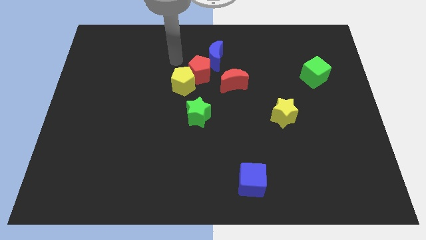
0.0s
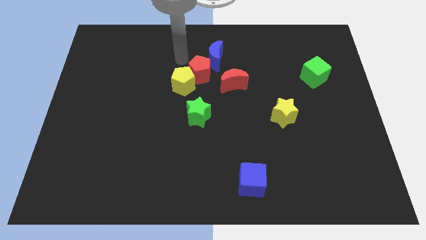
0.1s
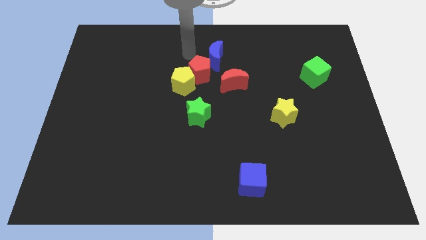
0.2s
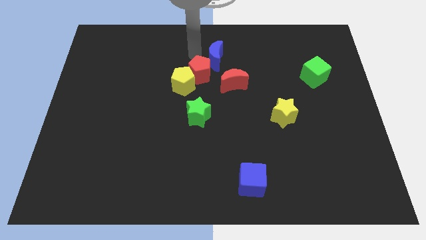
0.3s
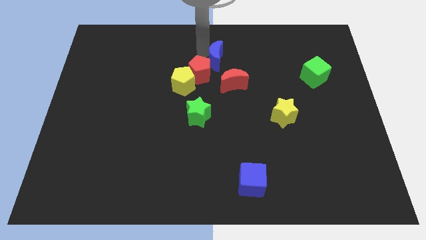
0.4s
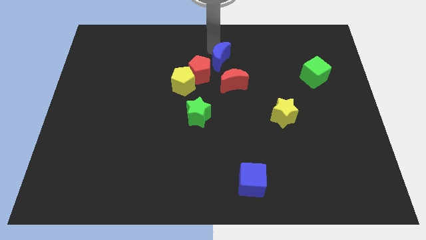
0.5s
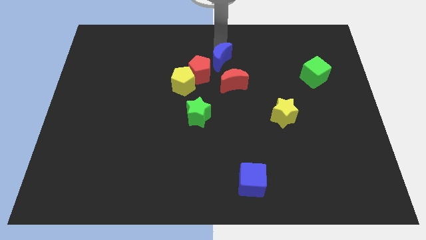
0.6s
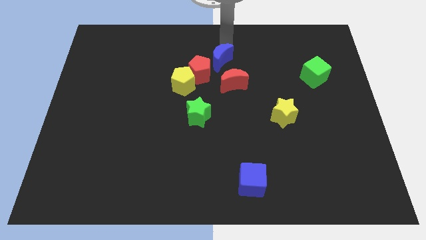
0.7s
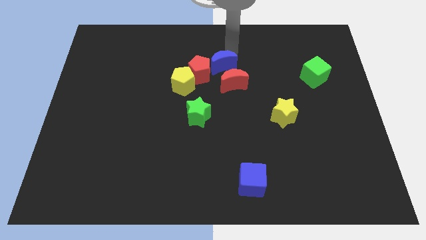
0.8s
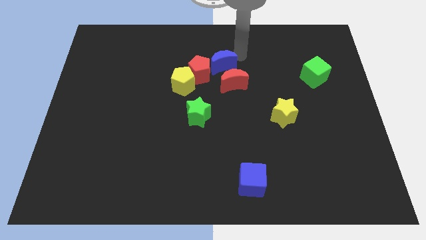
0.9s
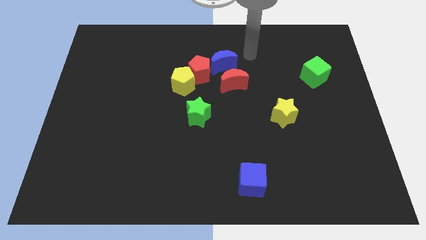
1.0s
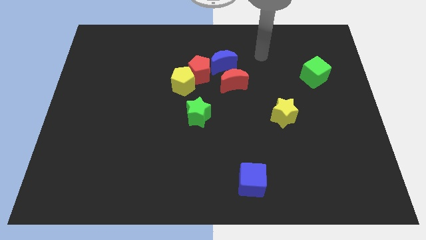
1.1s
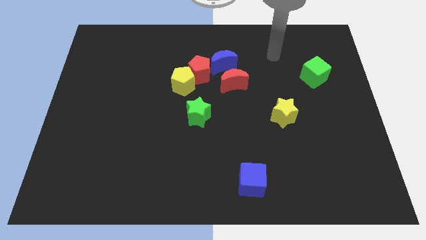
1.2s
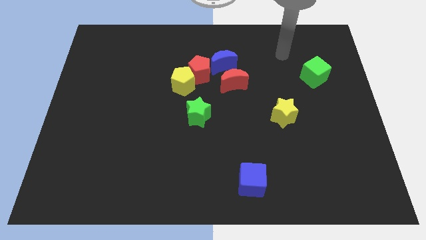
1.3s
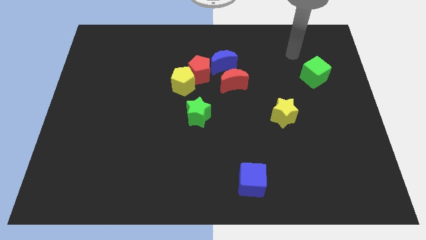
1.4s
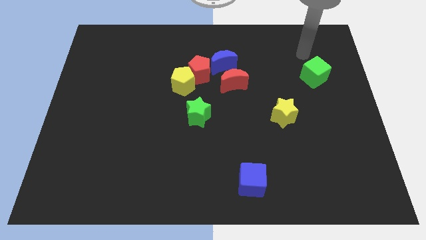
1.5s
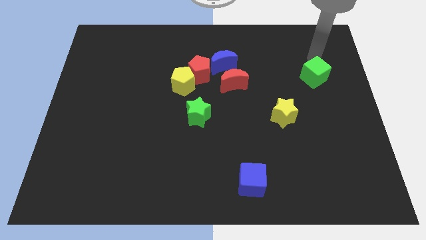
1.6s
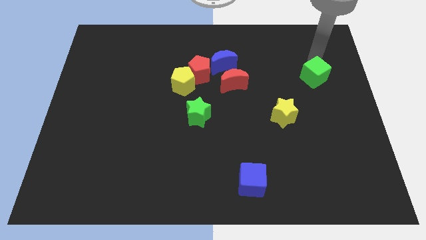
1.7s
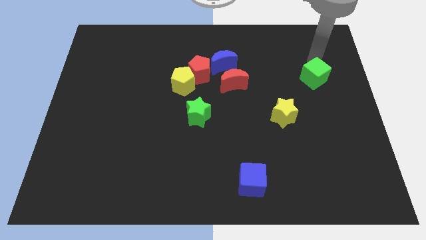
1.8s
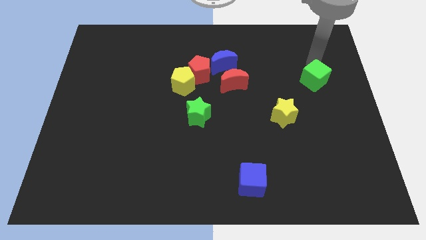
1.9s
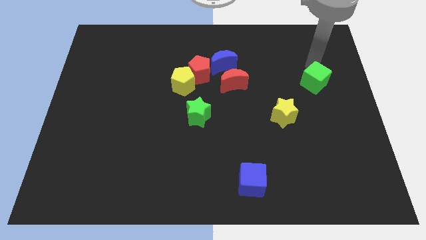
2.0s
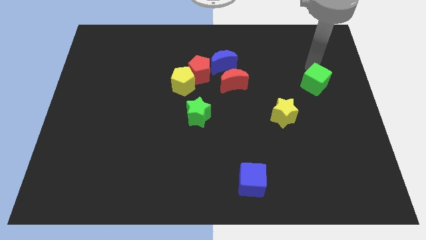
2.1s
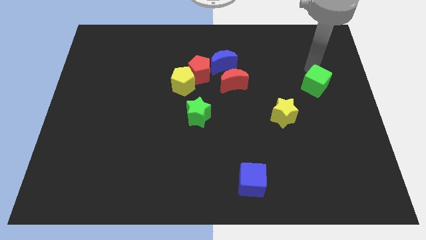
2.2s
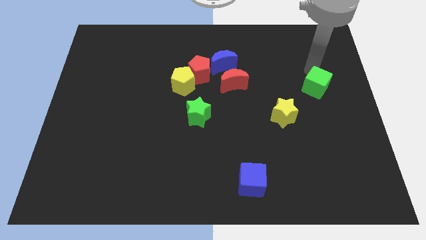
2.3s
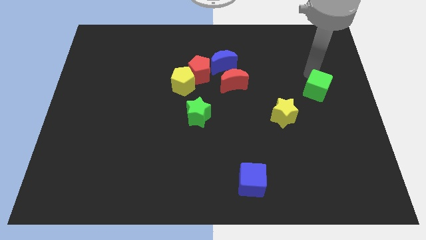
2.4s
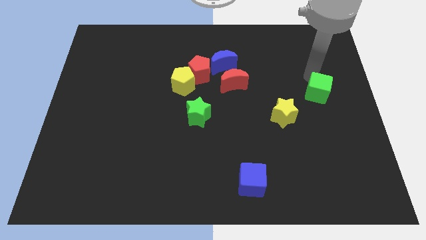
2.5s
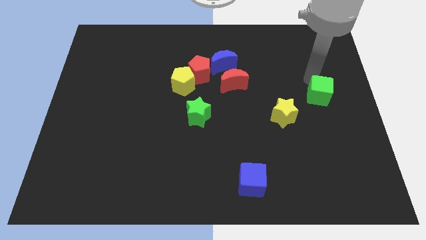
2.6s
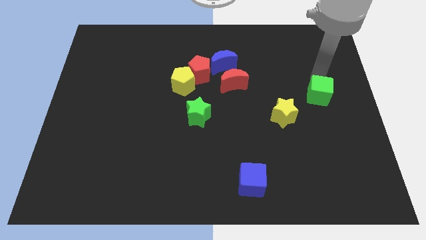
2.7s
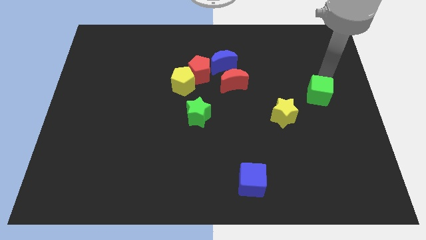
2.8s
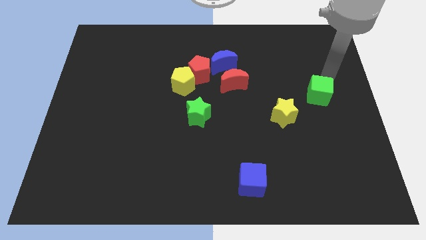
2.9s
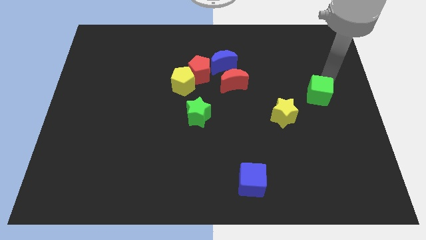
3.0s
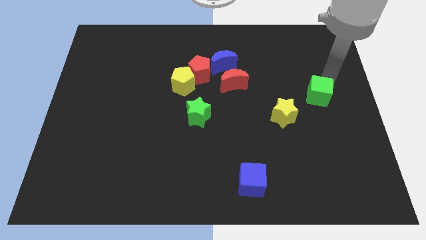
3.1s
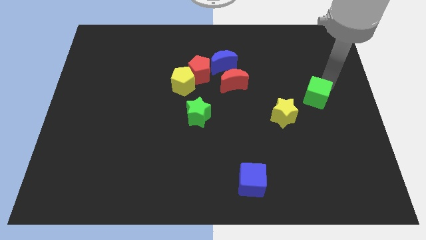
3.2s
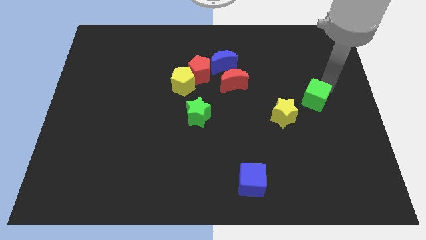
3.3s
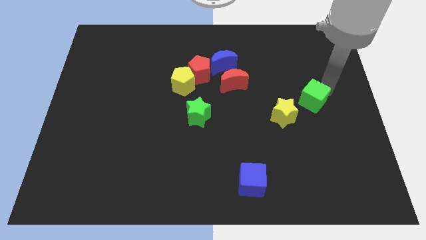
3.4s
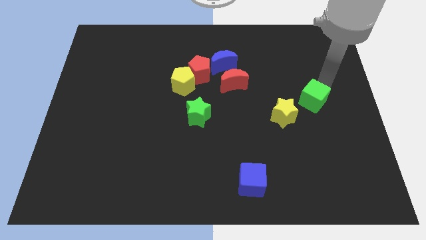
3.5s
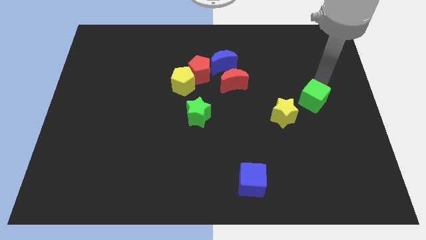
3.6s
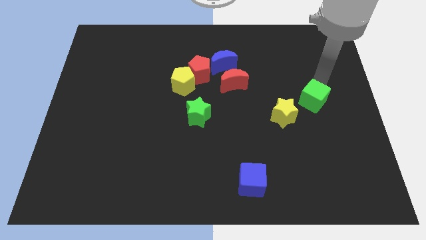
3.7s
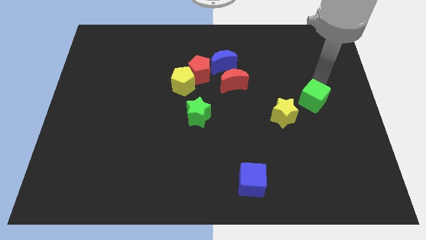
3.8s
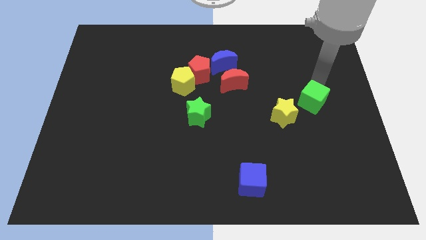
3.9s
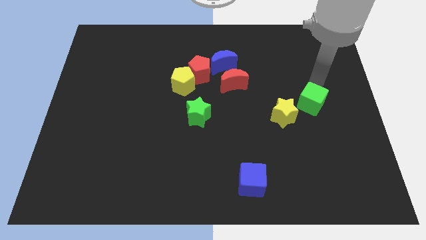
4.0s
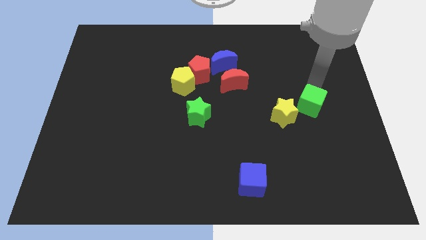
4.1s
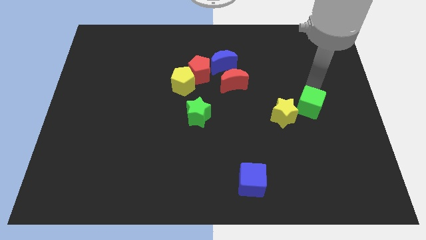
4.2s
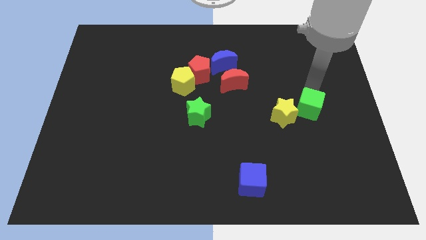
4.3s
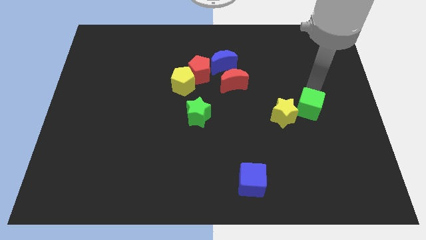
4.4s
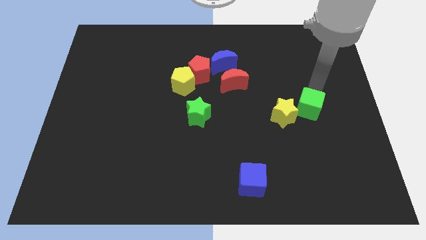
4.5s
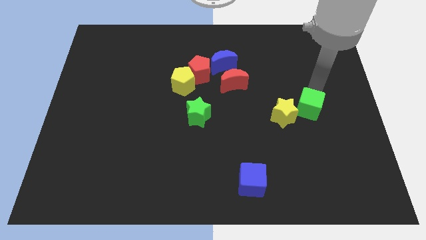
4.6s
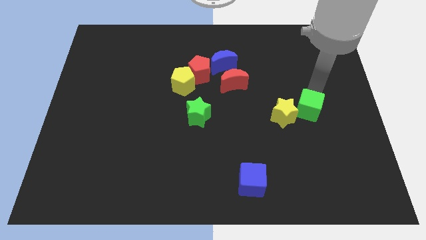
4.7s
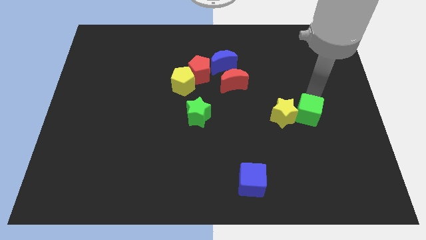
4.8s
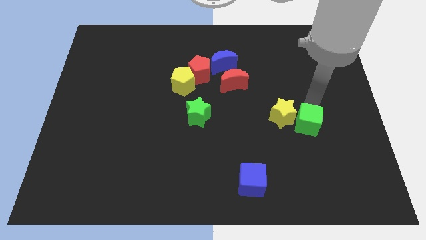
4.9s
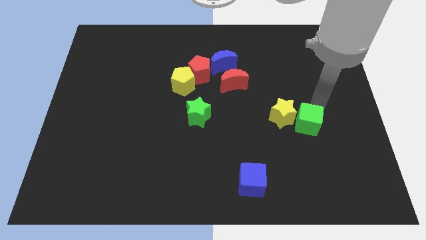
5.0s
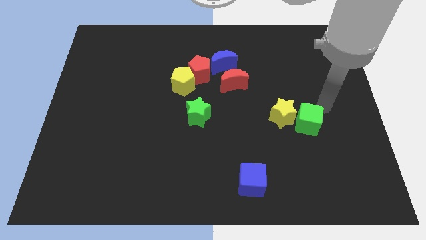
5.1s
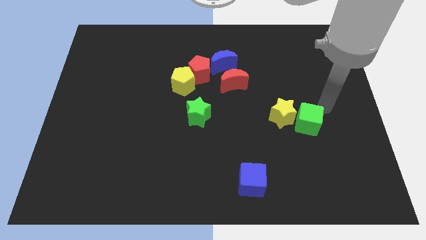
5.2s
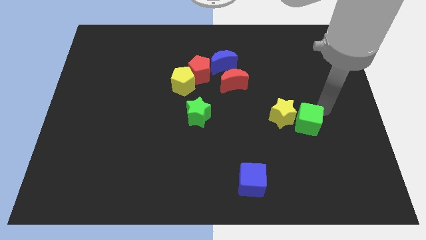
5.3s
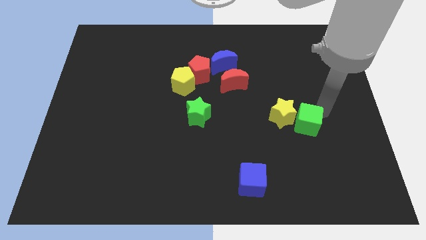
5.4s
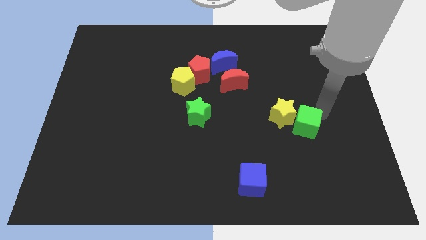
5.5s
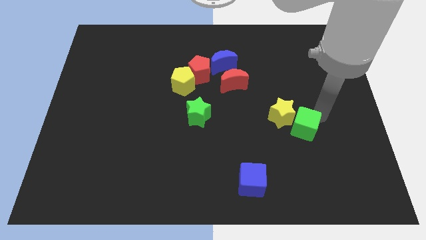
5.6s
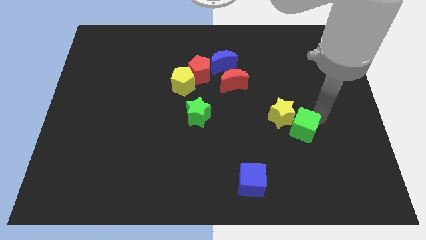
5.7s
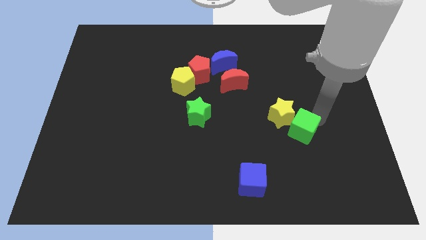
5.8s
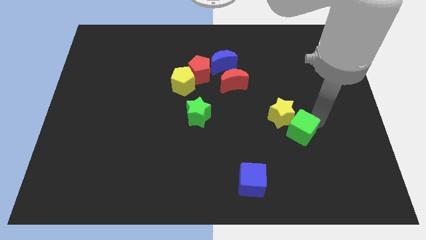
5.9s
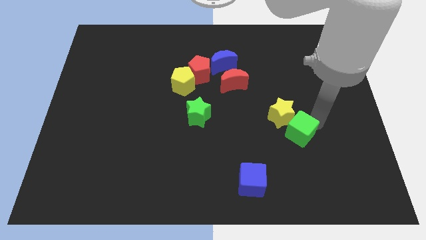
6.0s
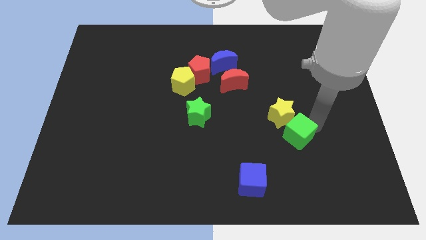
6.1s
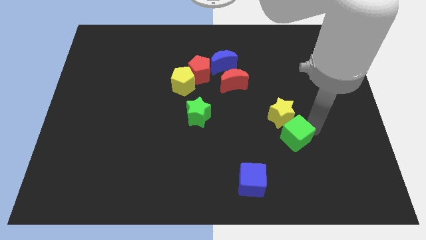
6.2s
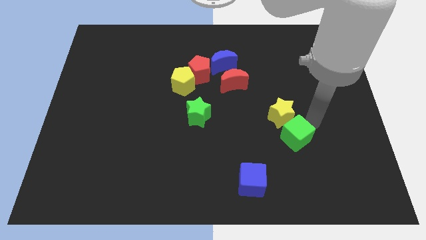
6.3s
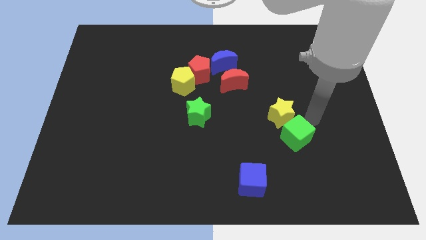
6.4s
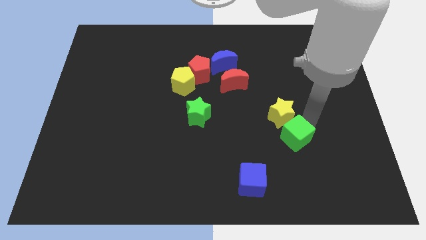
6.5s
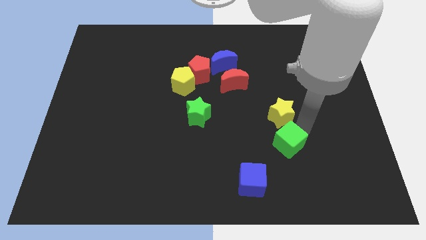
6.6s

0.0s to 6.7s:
put the green cube diagonally up and to the right of the blue cube
